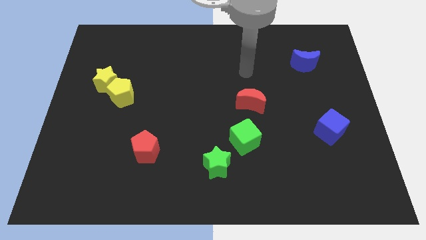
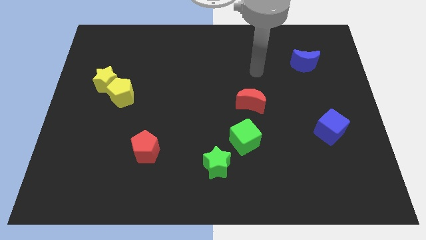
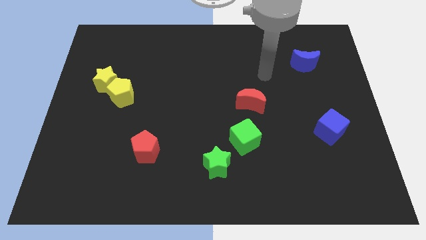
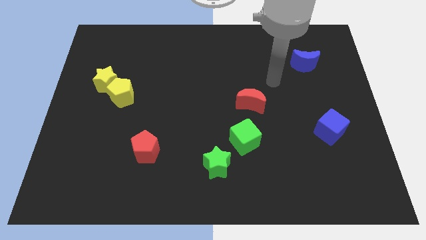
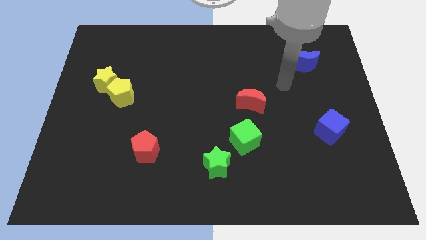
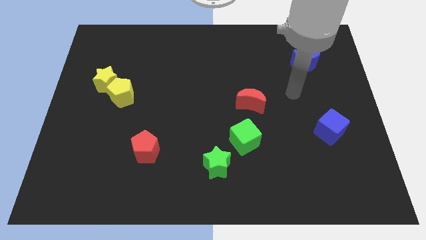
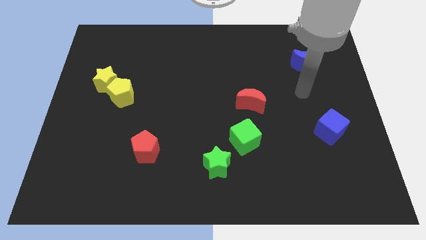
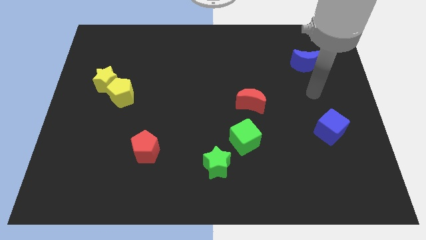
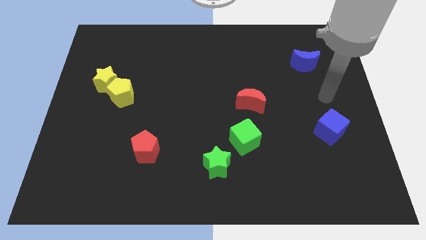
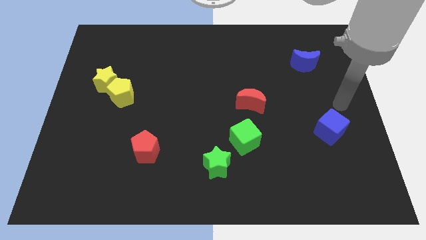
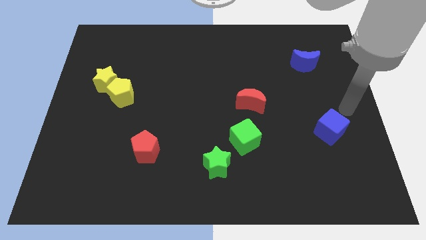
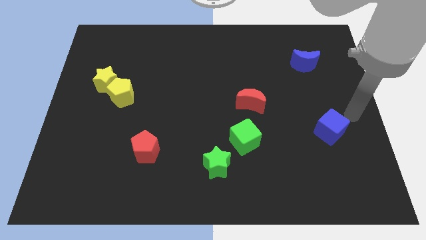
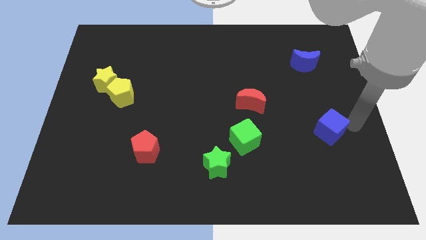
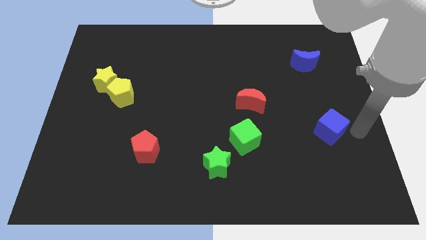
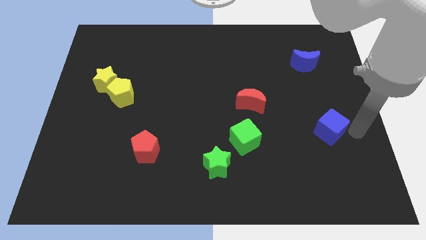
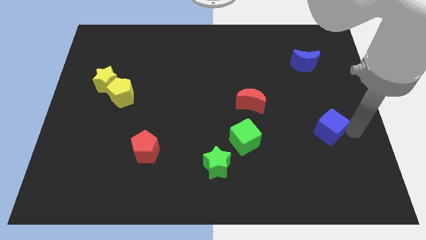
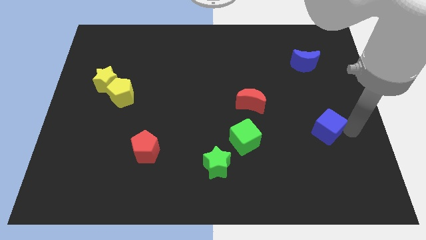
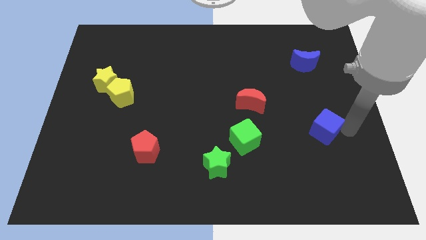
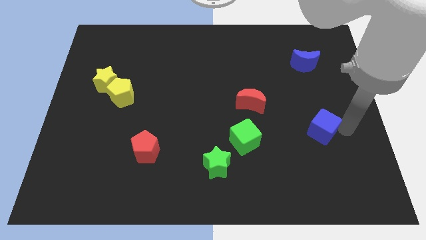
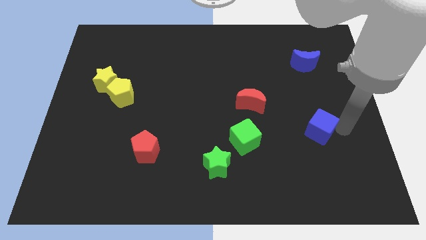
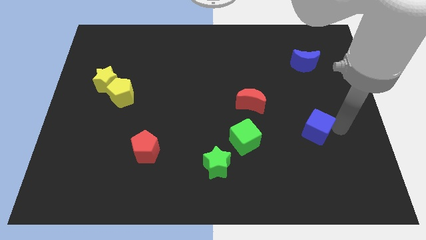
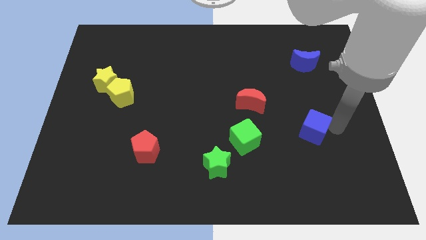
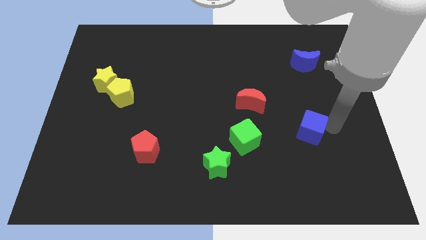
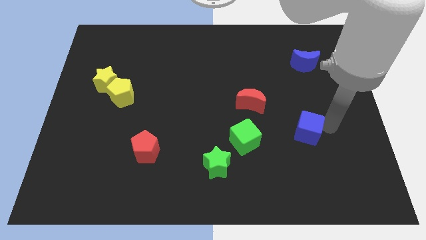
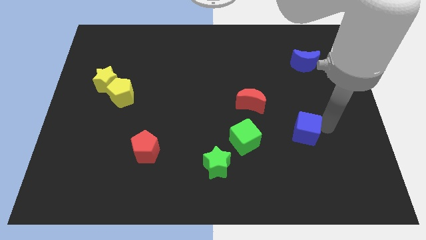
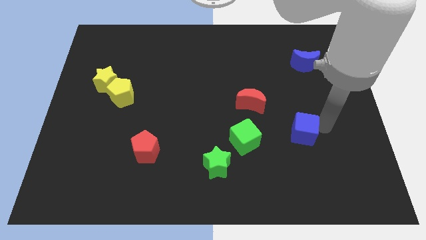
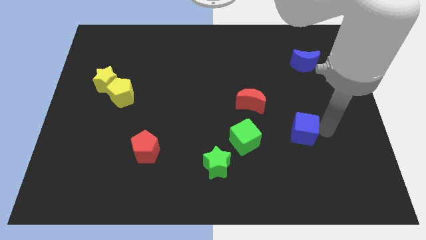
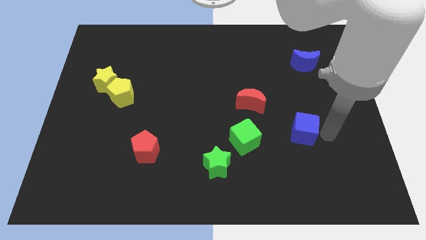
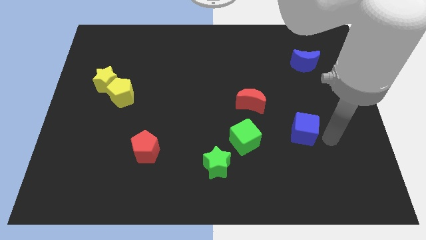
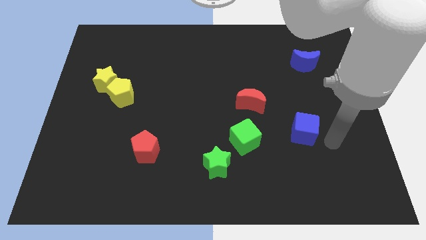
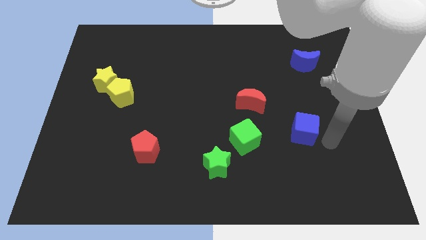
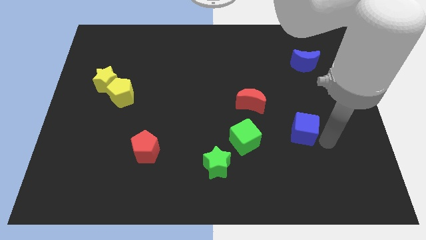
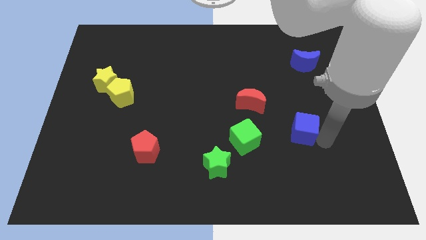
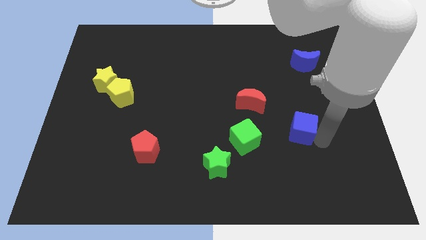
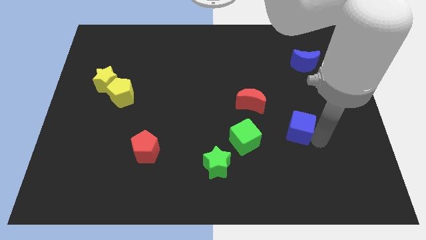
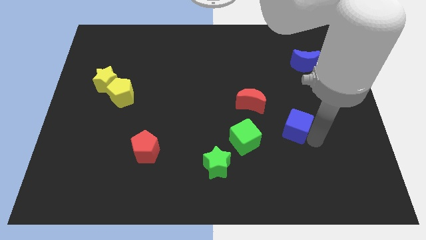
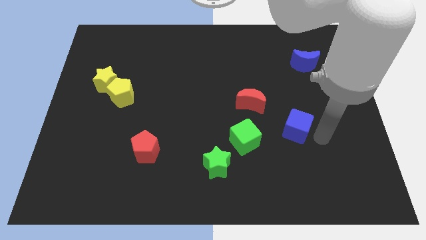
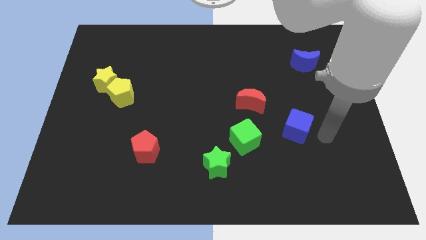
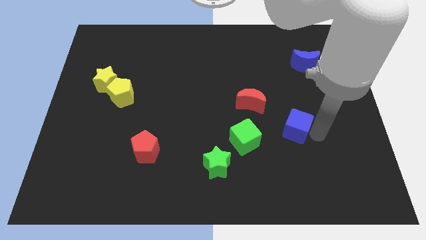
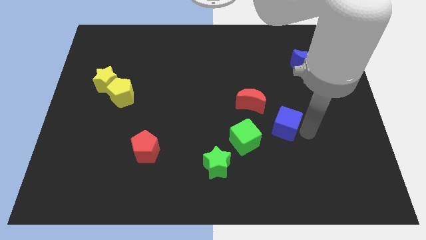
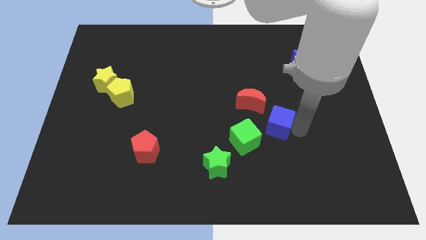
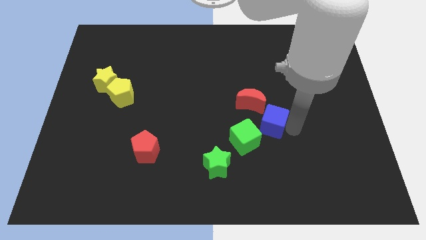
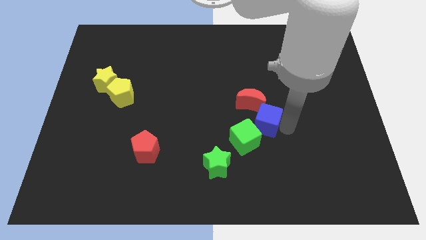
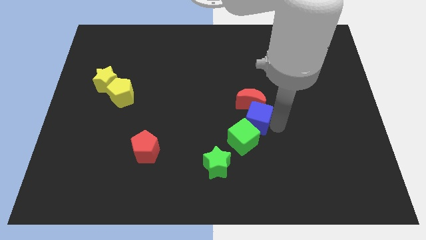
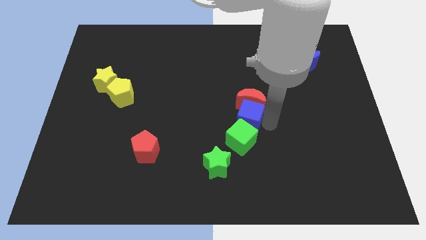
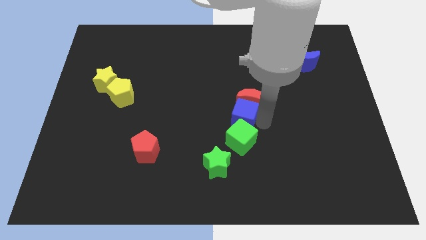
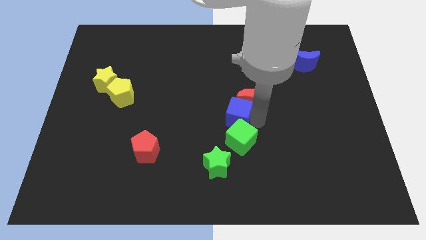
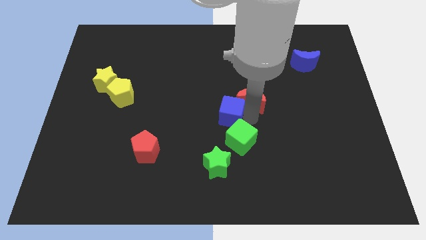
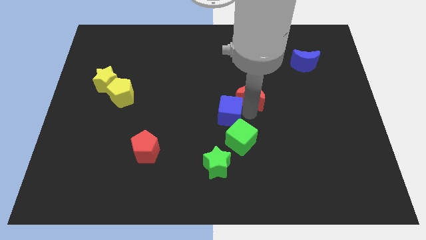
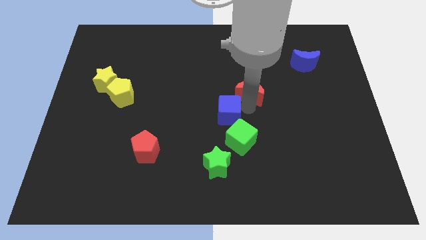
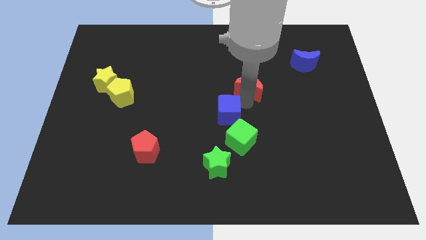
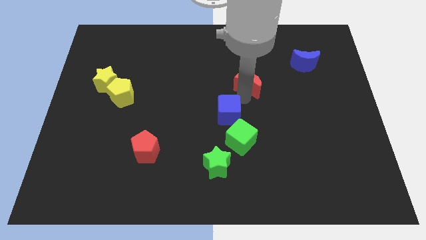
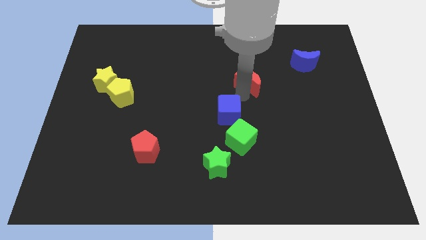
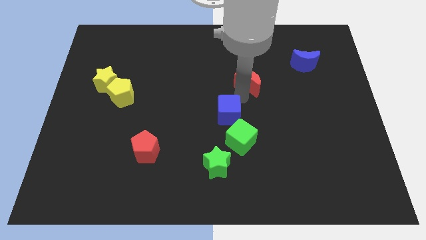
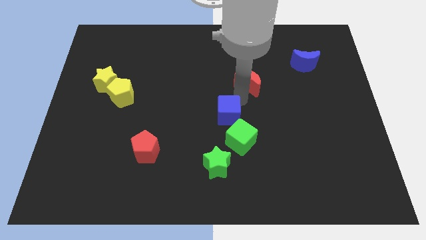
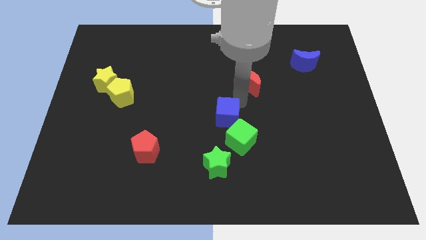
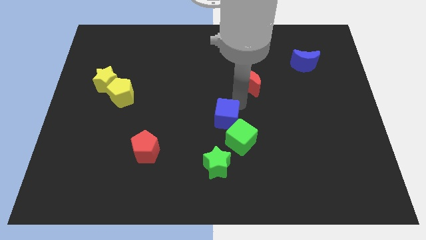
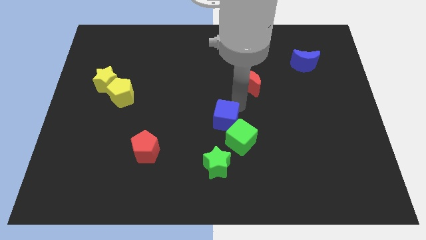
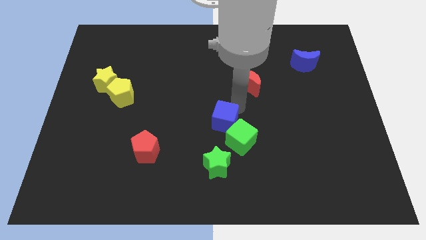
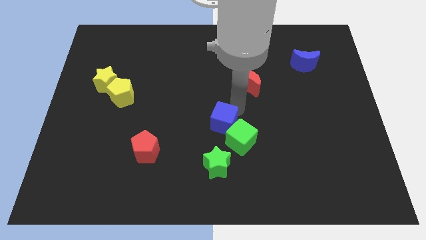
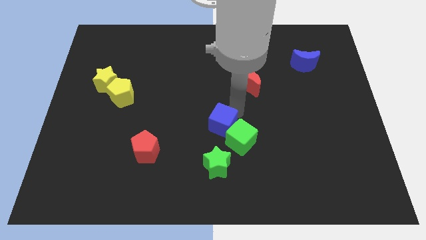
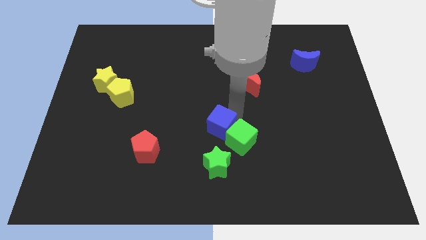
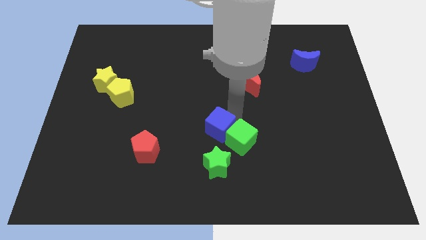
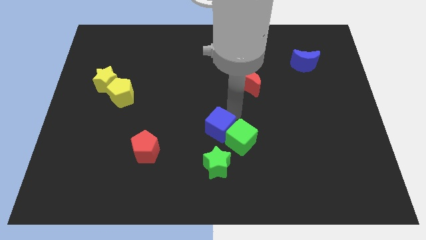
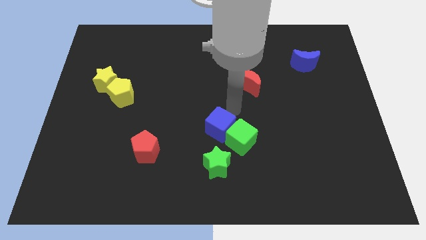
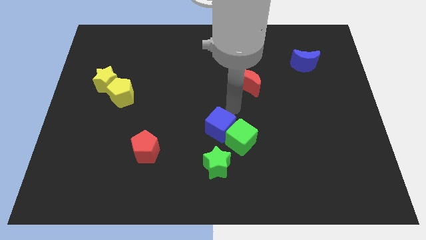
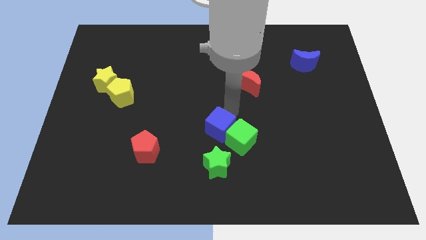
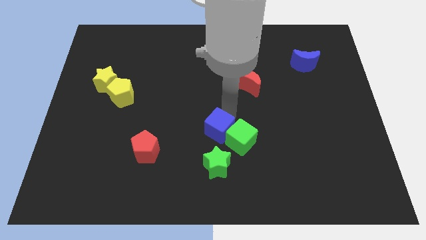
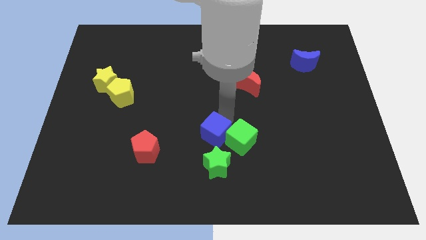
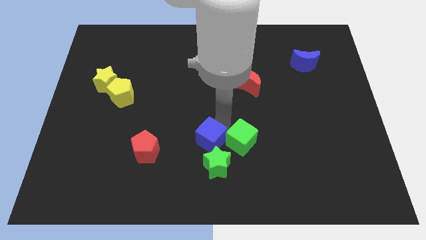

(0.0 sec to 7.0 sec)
push the blue cube just right of the red pentagon
